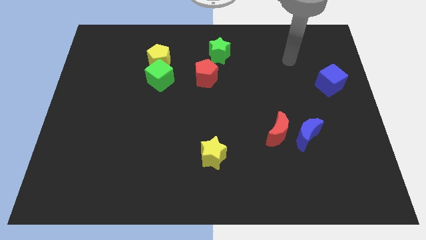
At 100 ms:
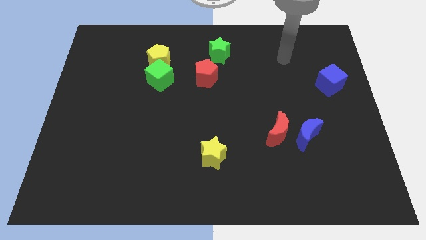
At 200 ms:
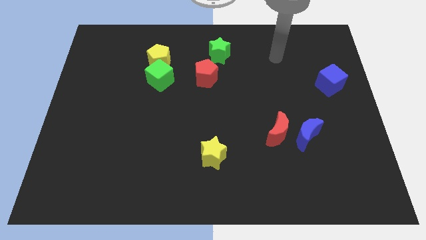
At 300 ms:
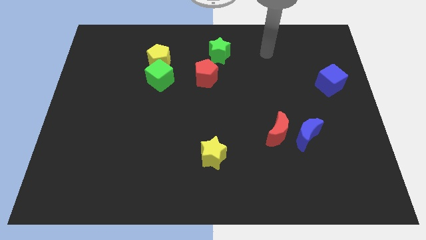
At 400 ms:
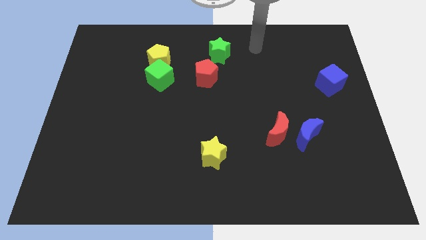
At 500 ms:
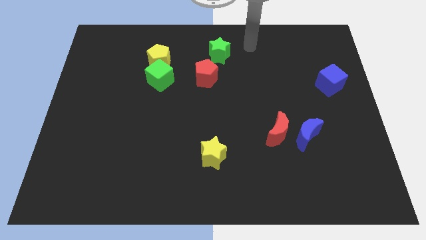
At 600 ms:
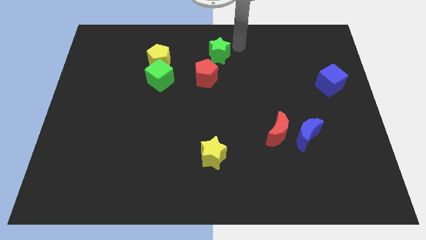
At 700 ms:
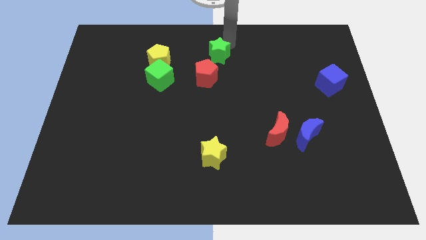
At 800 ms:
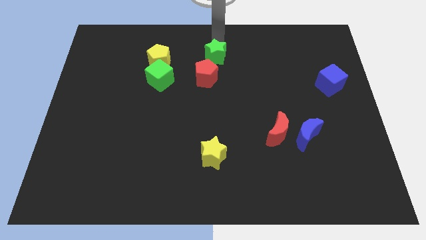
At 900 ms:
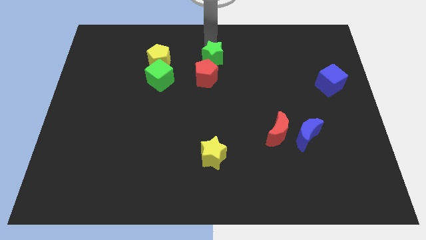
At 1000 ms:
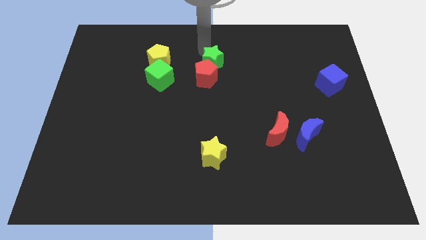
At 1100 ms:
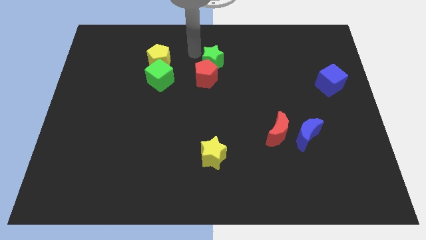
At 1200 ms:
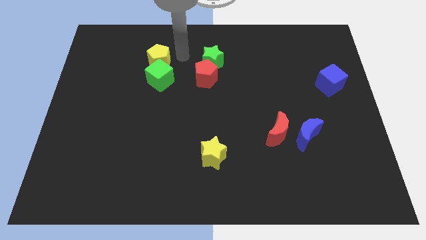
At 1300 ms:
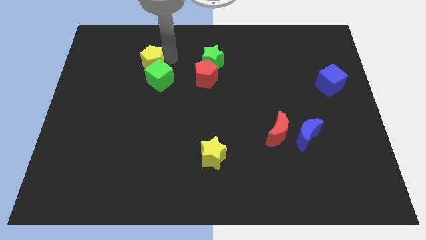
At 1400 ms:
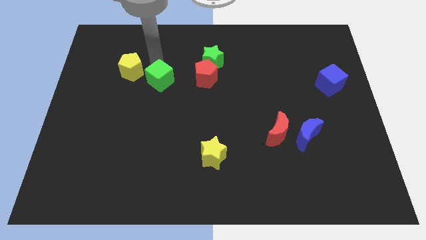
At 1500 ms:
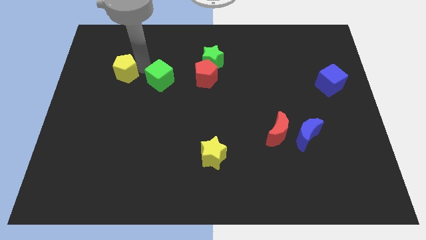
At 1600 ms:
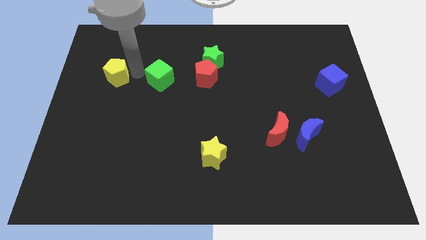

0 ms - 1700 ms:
move the green cube away from the yellow pentagon

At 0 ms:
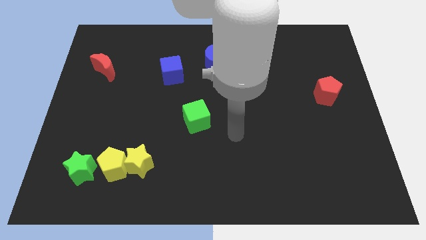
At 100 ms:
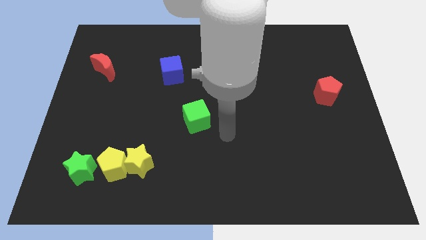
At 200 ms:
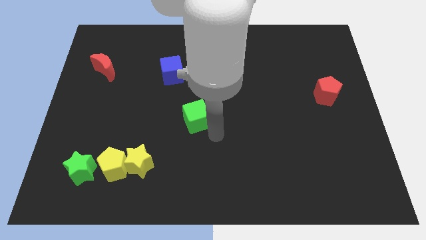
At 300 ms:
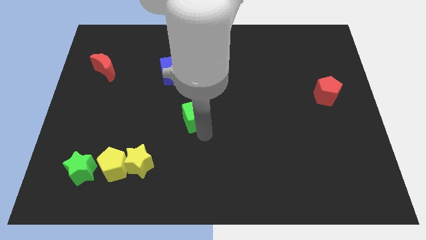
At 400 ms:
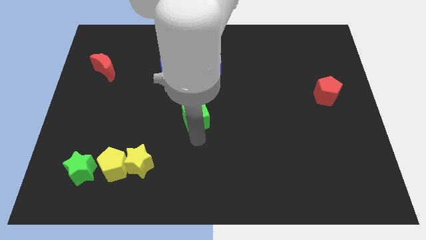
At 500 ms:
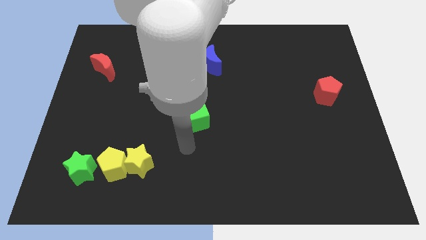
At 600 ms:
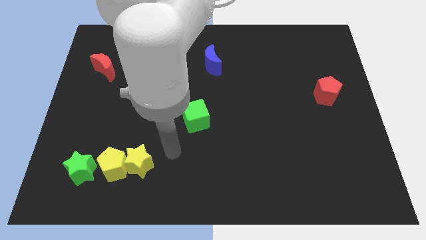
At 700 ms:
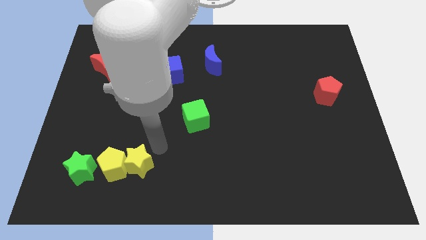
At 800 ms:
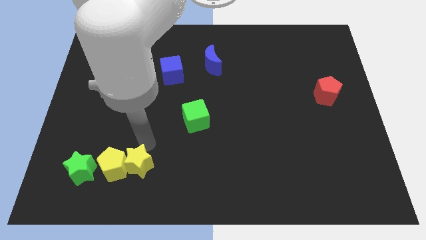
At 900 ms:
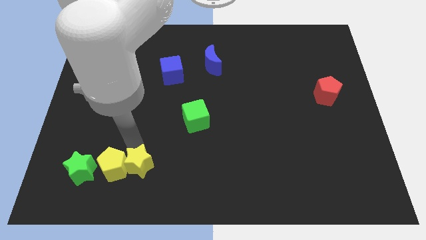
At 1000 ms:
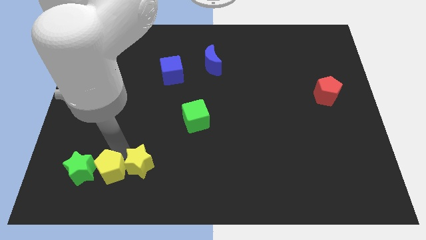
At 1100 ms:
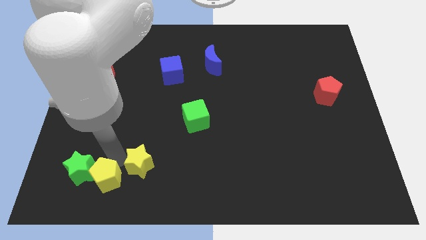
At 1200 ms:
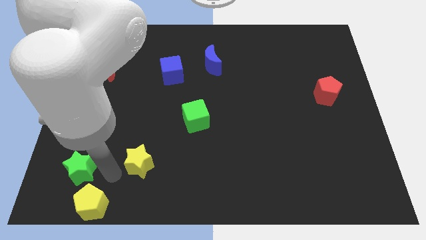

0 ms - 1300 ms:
move the yellow star away from the yellow pentagon

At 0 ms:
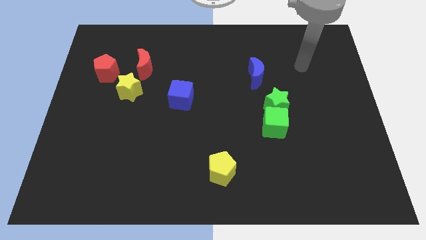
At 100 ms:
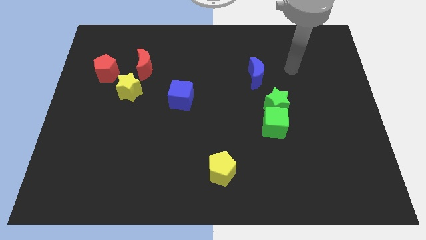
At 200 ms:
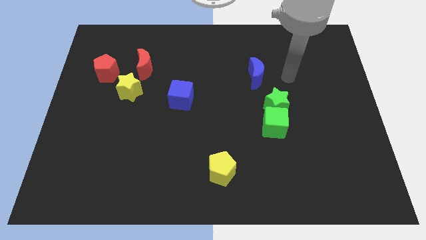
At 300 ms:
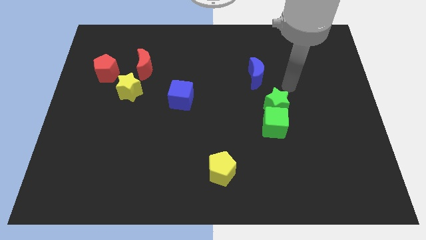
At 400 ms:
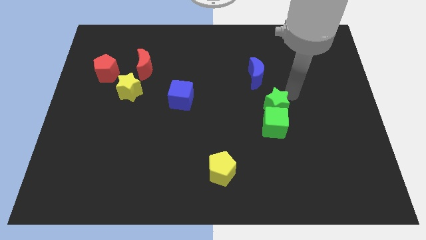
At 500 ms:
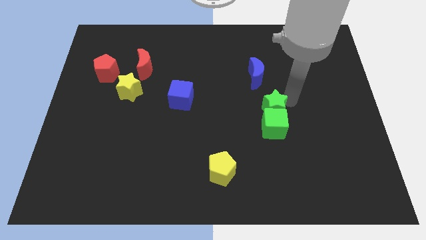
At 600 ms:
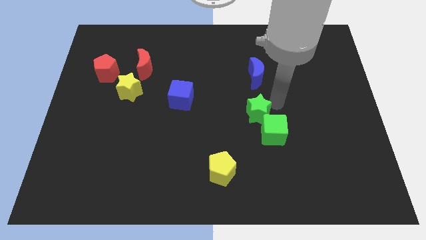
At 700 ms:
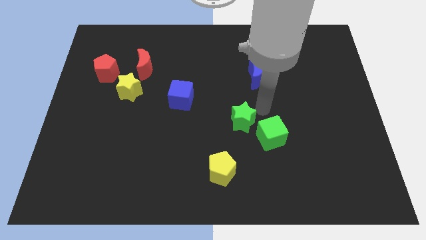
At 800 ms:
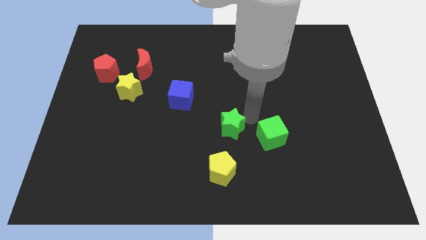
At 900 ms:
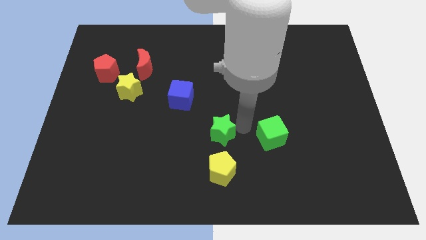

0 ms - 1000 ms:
separate the green cube from the green star

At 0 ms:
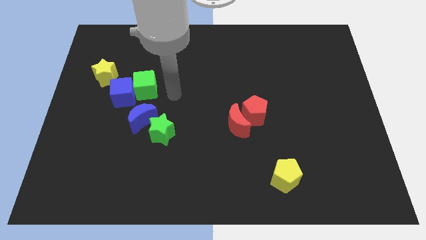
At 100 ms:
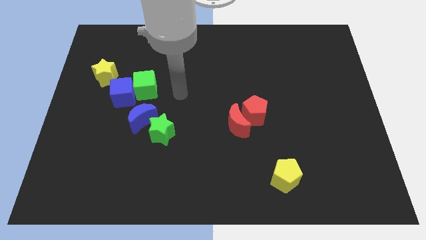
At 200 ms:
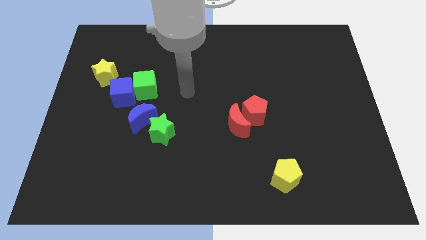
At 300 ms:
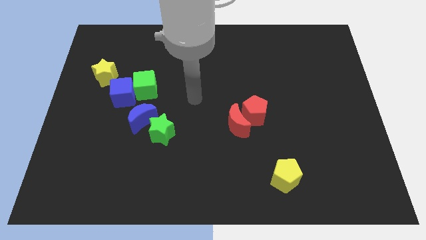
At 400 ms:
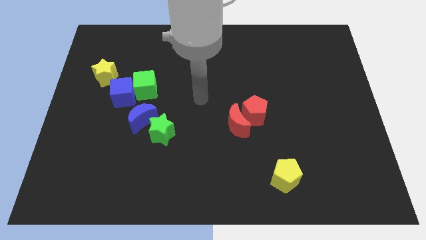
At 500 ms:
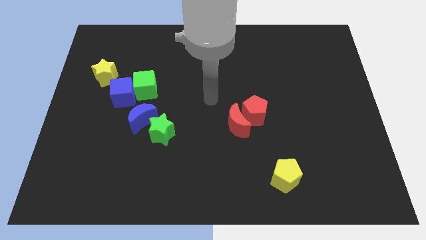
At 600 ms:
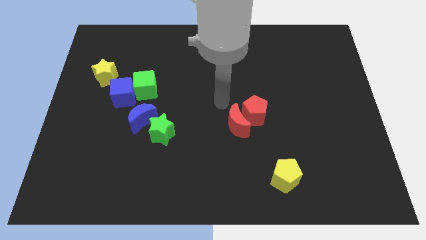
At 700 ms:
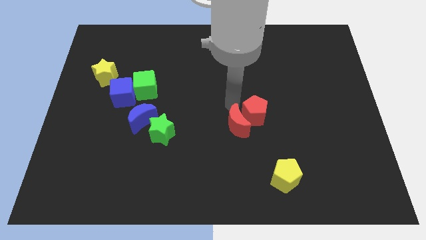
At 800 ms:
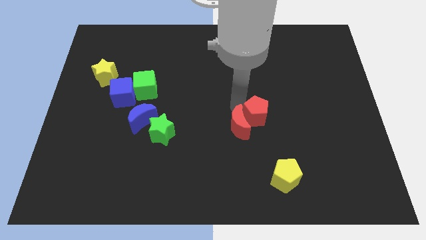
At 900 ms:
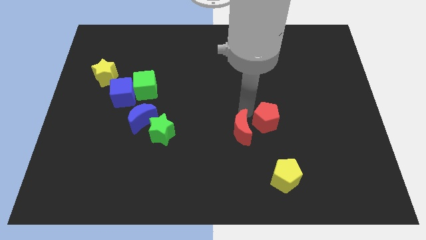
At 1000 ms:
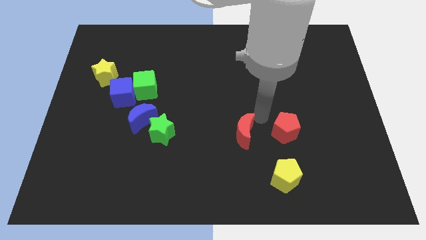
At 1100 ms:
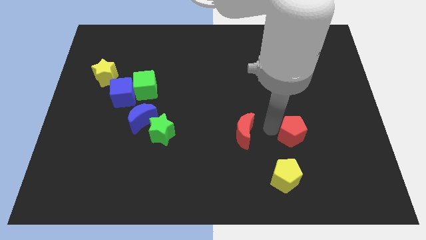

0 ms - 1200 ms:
separate the red moon from the red pentagon

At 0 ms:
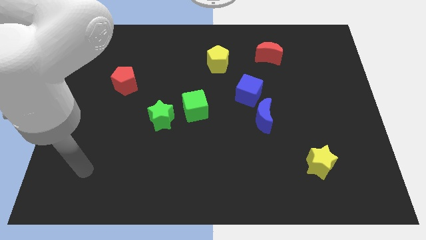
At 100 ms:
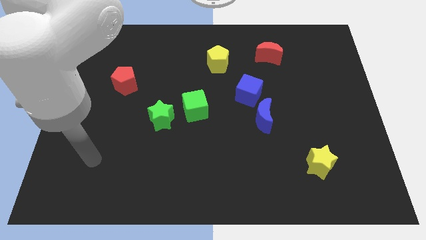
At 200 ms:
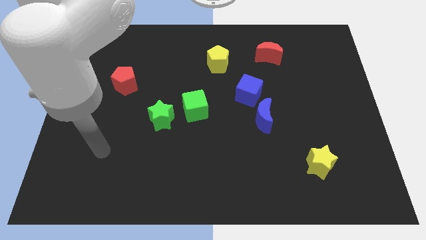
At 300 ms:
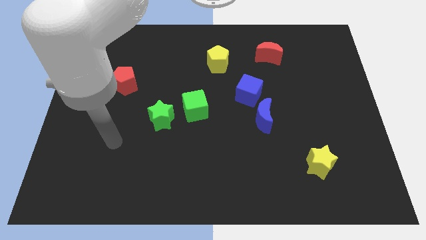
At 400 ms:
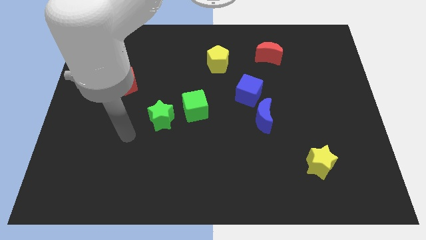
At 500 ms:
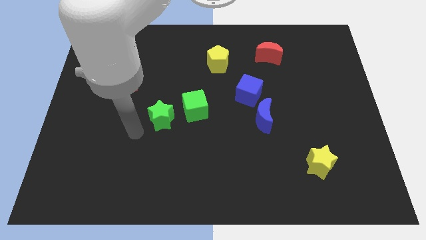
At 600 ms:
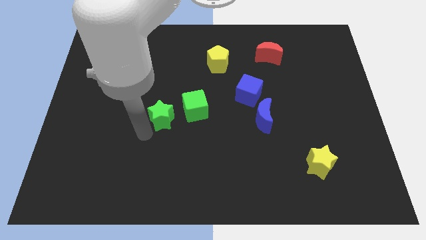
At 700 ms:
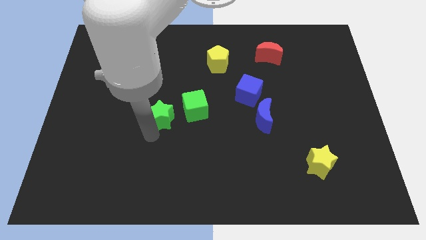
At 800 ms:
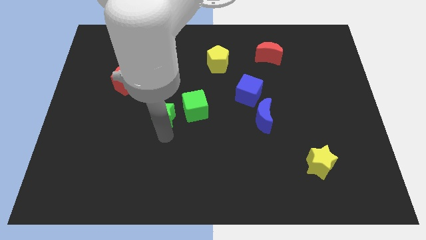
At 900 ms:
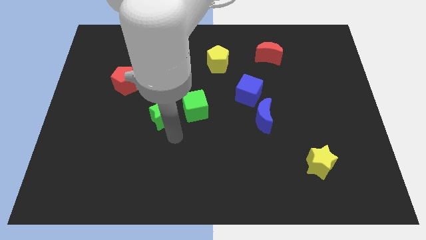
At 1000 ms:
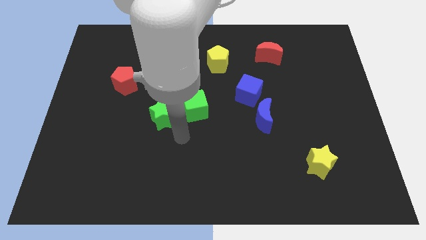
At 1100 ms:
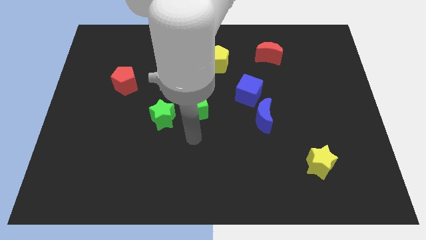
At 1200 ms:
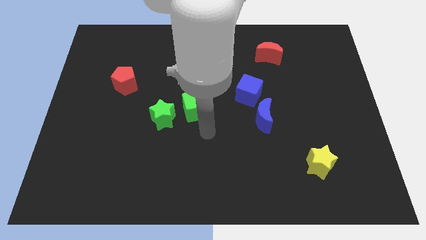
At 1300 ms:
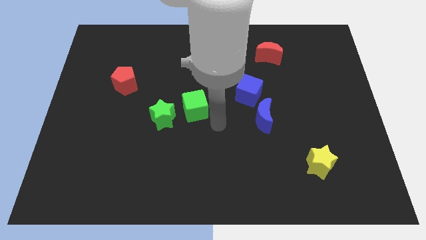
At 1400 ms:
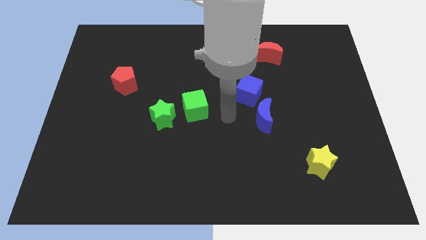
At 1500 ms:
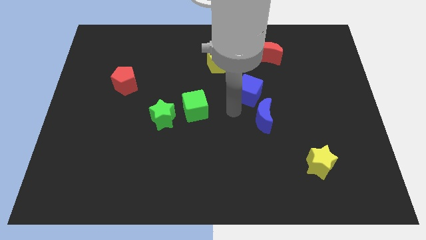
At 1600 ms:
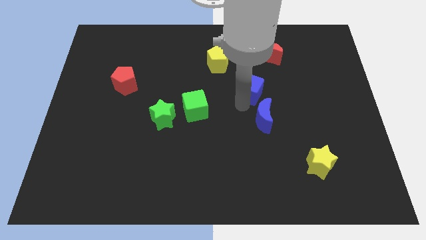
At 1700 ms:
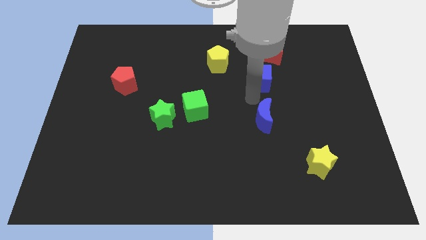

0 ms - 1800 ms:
pull the blue moon apart from the blue cube

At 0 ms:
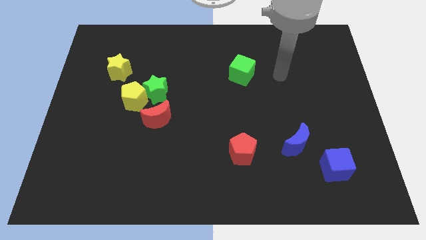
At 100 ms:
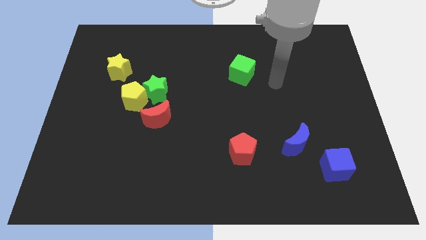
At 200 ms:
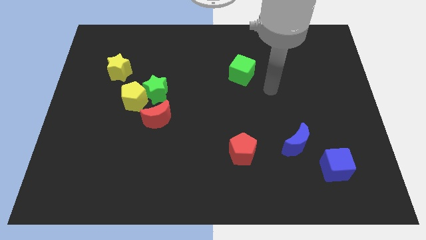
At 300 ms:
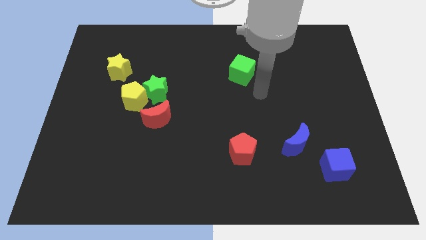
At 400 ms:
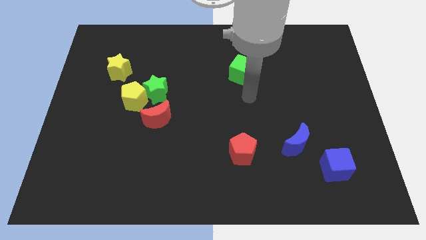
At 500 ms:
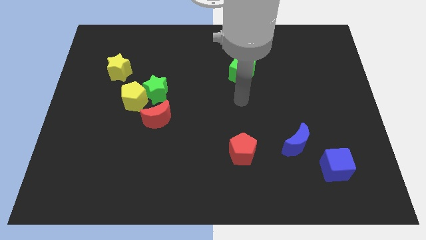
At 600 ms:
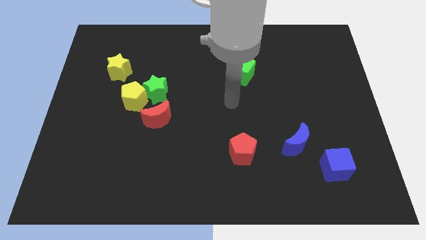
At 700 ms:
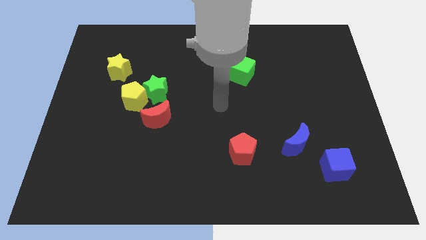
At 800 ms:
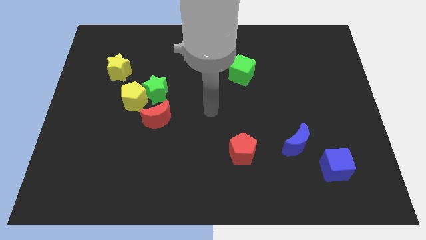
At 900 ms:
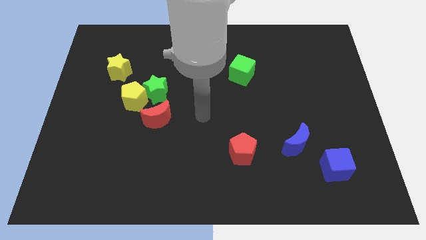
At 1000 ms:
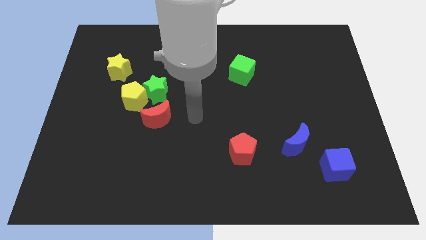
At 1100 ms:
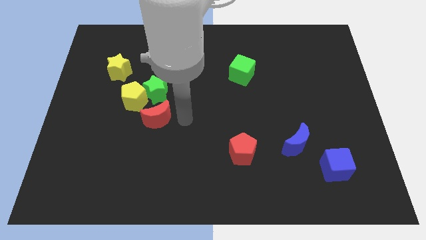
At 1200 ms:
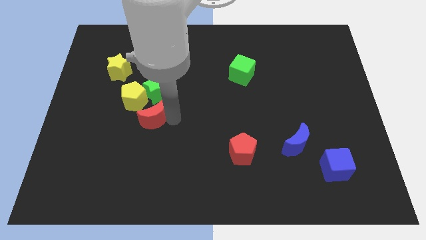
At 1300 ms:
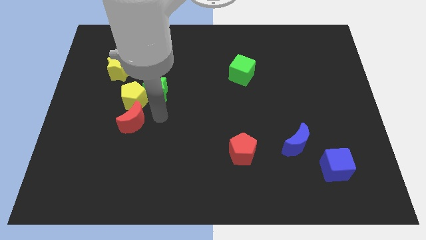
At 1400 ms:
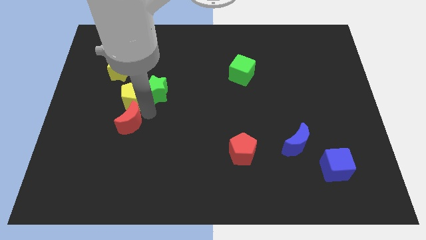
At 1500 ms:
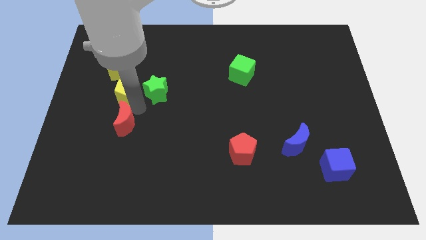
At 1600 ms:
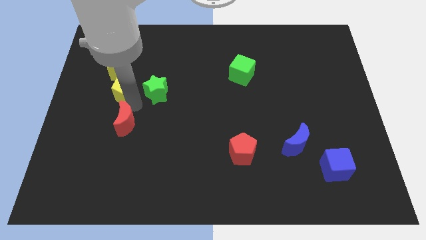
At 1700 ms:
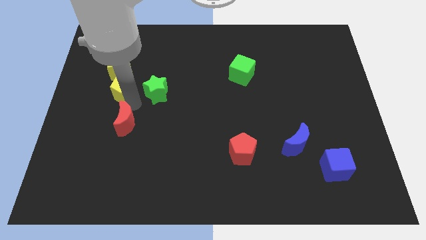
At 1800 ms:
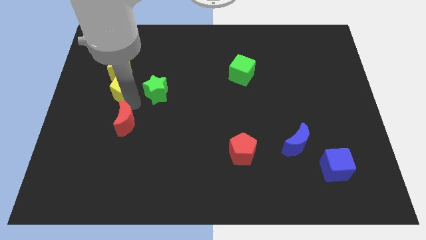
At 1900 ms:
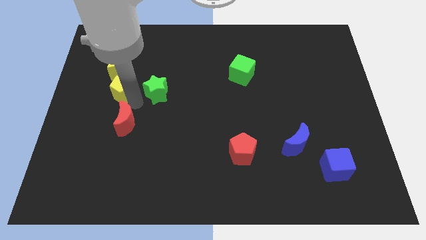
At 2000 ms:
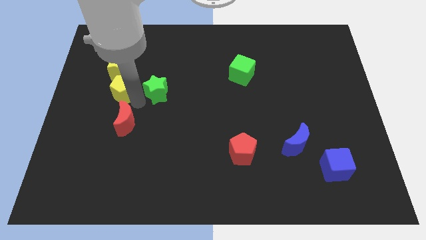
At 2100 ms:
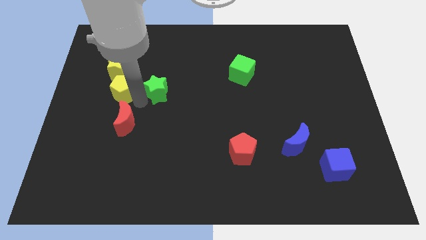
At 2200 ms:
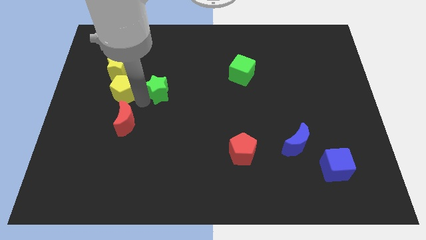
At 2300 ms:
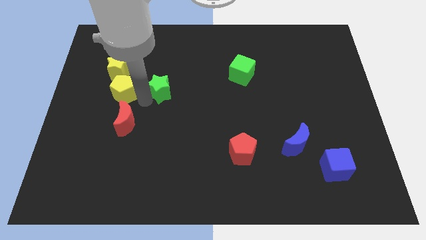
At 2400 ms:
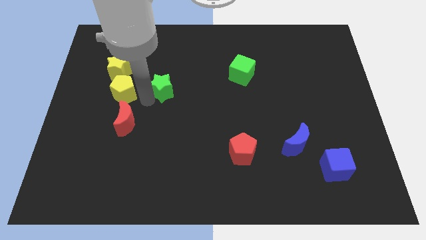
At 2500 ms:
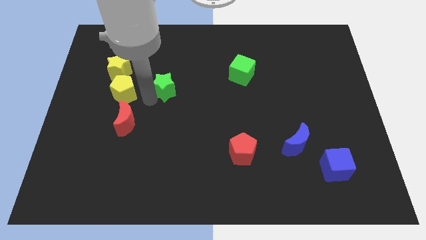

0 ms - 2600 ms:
pull the green star apart from the yellow pentagon and red moon
